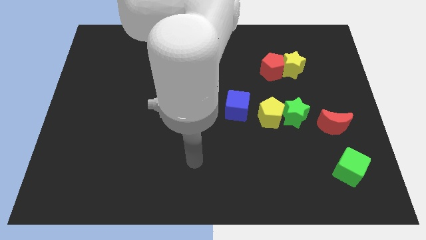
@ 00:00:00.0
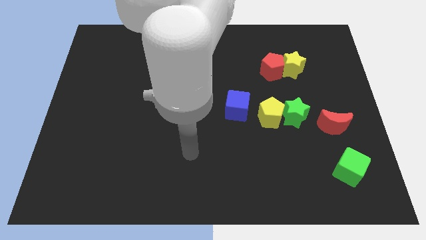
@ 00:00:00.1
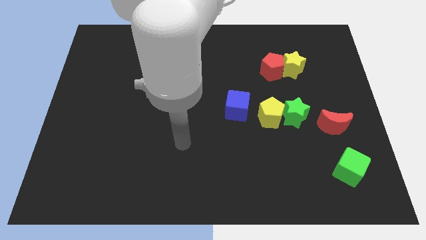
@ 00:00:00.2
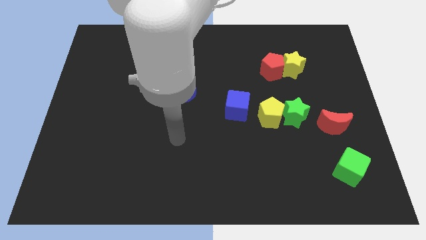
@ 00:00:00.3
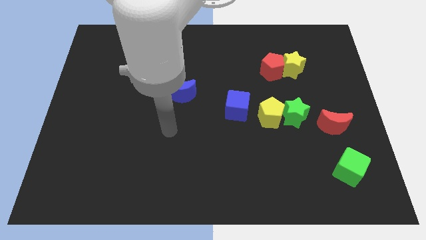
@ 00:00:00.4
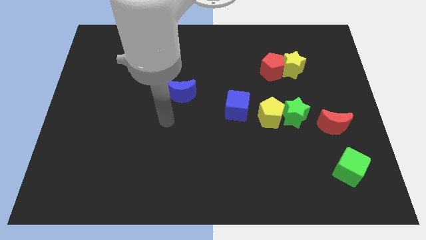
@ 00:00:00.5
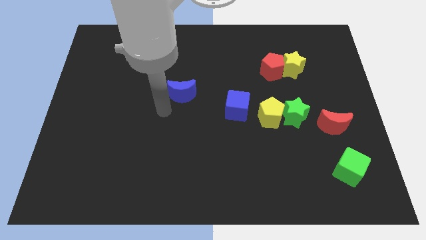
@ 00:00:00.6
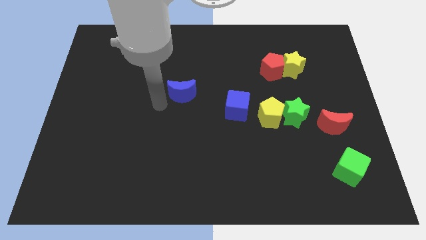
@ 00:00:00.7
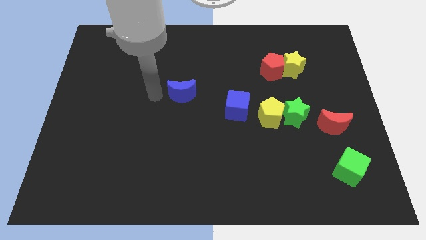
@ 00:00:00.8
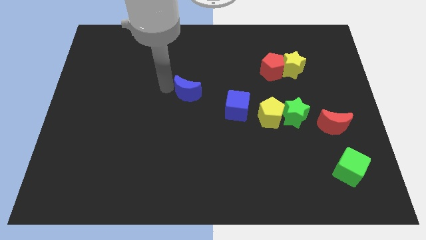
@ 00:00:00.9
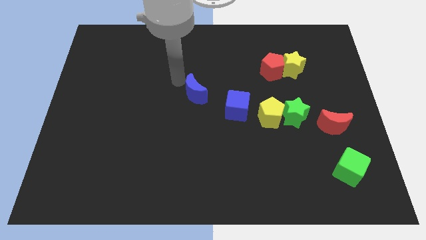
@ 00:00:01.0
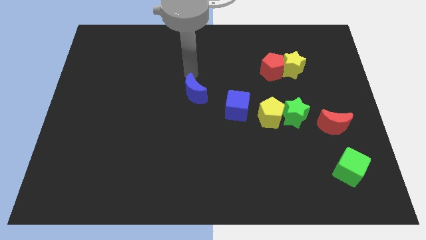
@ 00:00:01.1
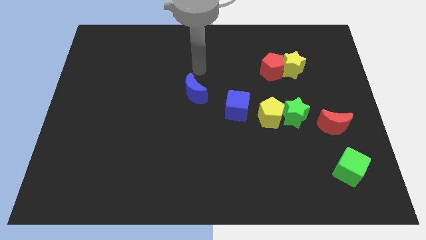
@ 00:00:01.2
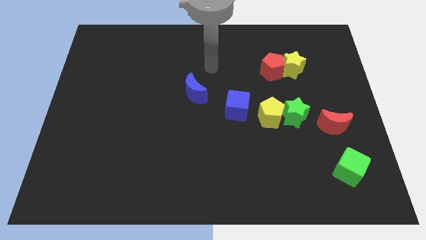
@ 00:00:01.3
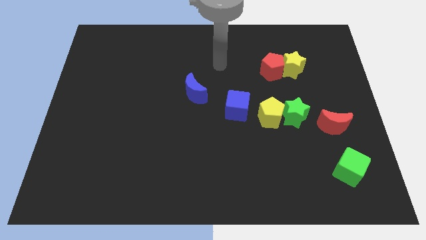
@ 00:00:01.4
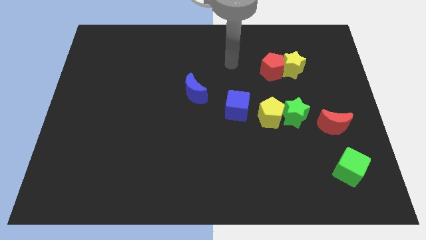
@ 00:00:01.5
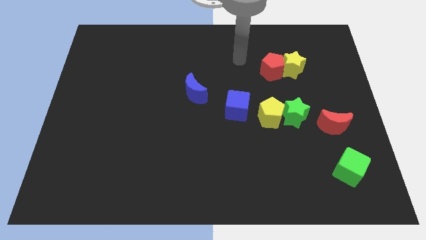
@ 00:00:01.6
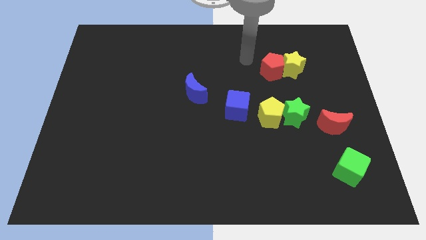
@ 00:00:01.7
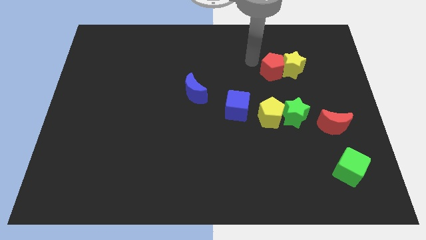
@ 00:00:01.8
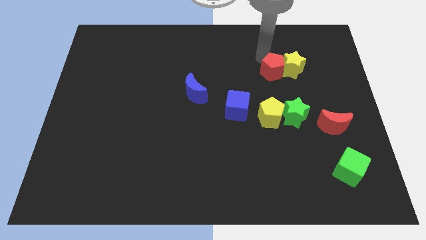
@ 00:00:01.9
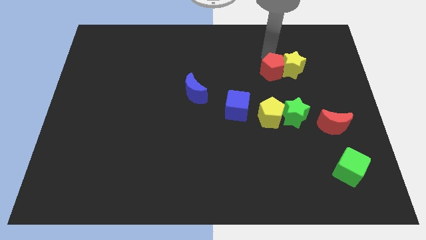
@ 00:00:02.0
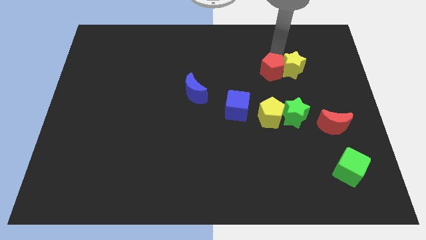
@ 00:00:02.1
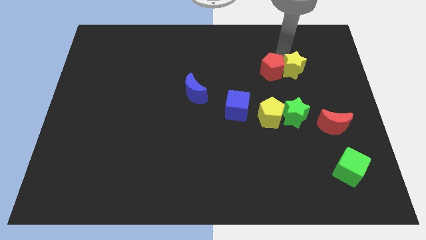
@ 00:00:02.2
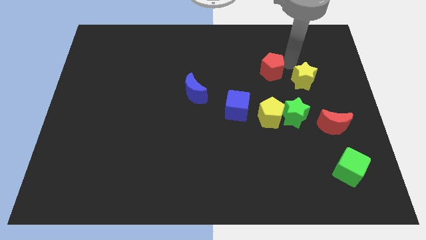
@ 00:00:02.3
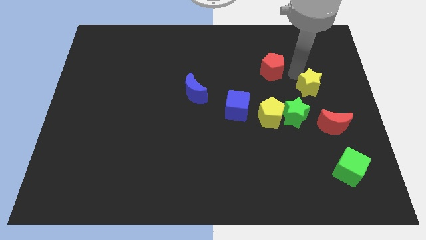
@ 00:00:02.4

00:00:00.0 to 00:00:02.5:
pull the red pentagon apart from the yellow star

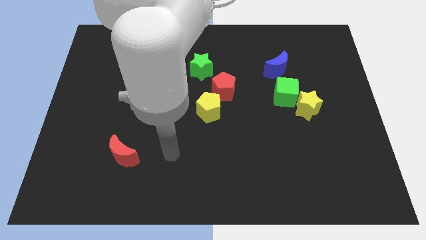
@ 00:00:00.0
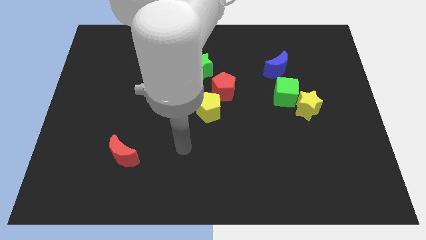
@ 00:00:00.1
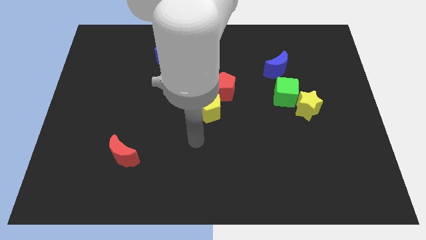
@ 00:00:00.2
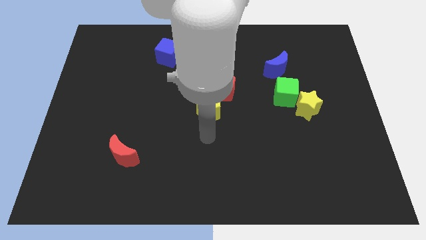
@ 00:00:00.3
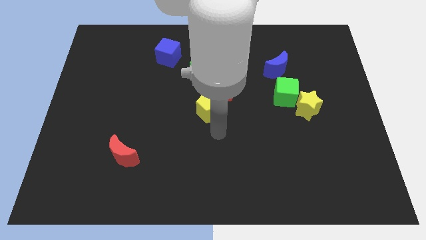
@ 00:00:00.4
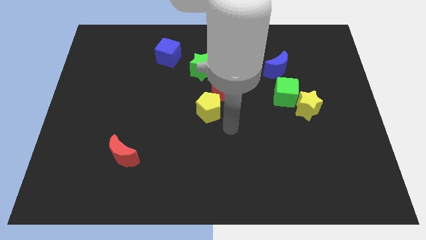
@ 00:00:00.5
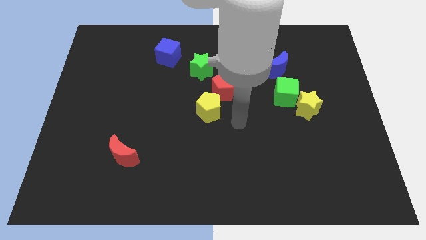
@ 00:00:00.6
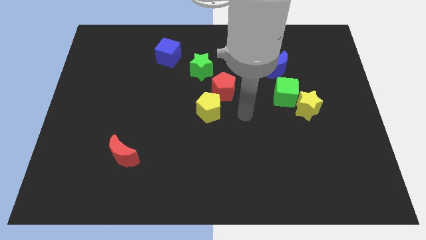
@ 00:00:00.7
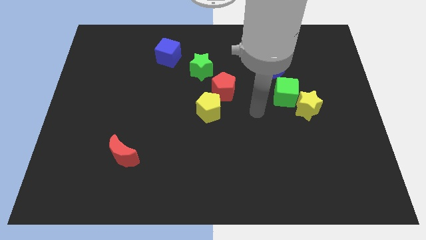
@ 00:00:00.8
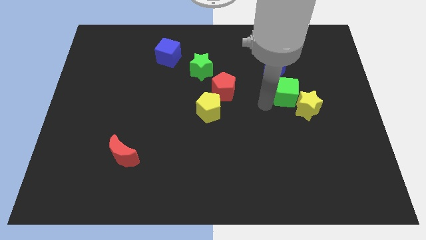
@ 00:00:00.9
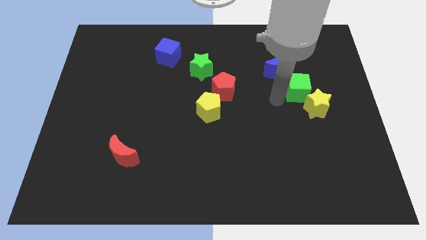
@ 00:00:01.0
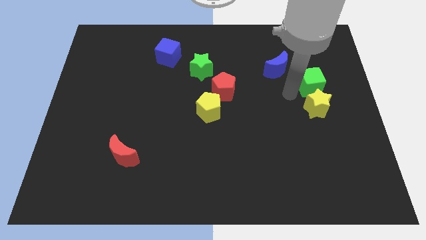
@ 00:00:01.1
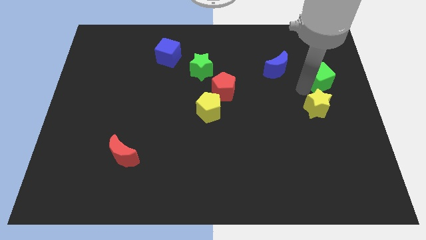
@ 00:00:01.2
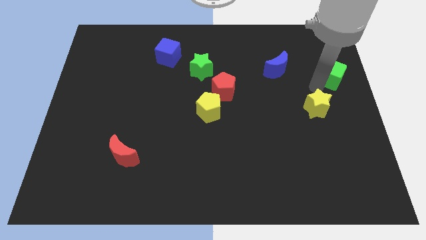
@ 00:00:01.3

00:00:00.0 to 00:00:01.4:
pull the yellow star apart from the green cube

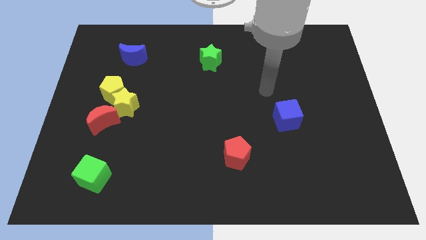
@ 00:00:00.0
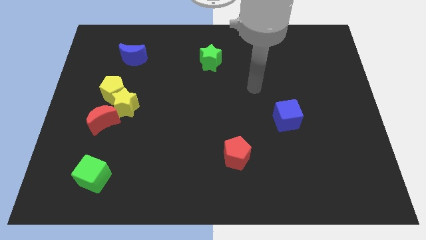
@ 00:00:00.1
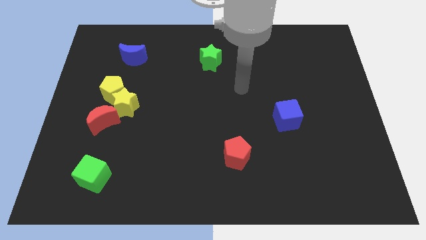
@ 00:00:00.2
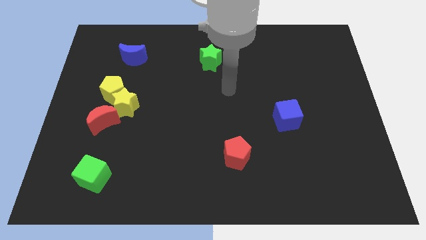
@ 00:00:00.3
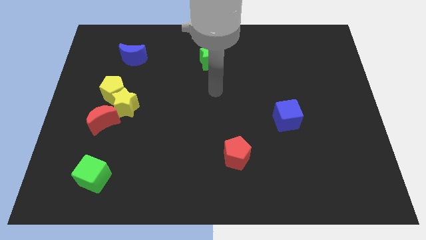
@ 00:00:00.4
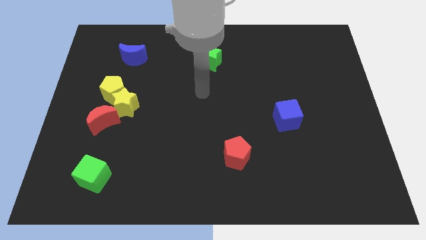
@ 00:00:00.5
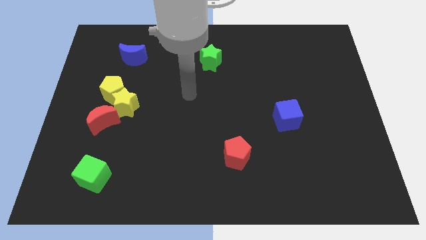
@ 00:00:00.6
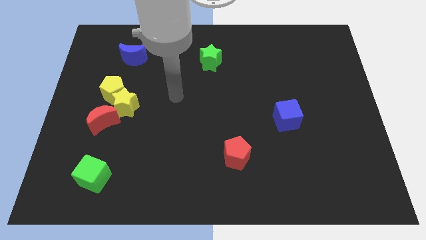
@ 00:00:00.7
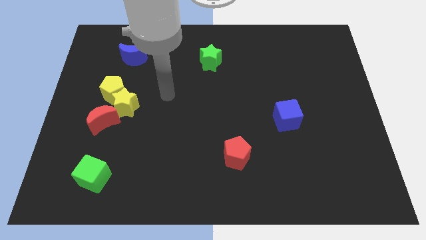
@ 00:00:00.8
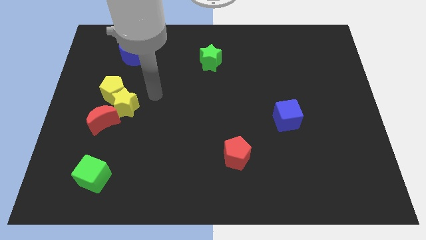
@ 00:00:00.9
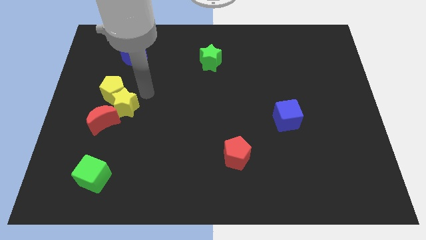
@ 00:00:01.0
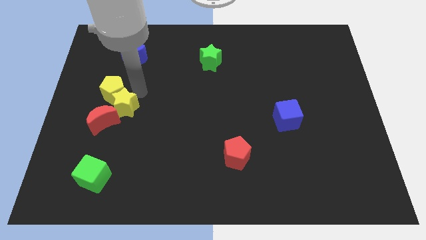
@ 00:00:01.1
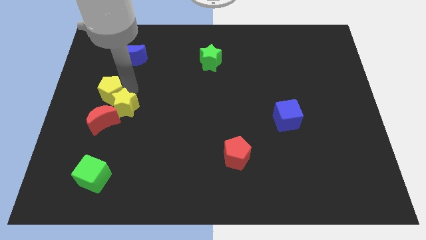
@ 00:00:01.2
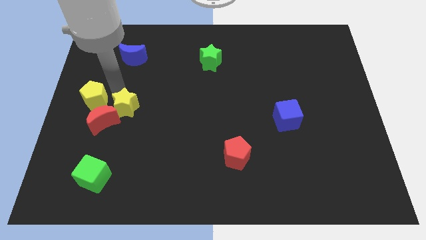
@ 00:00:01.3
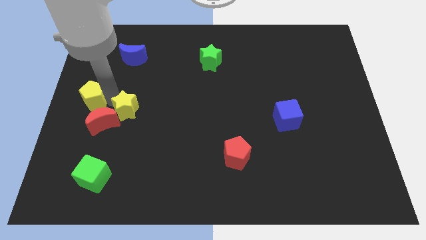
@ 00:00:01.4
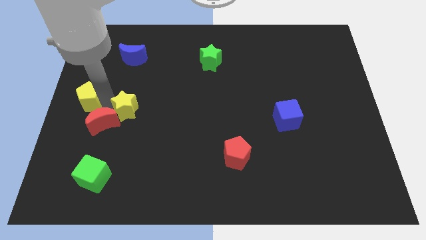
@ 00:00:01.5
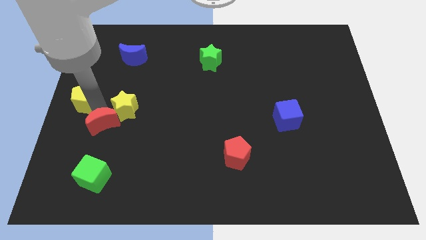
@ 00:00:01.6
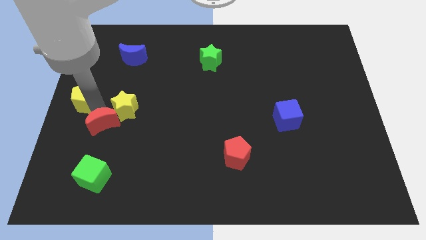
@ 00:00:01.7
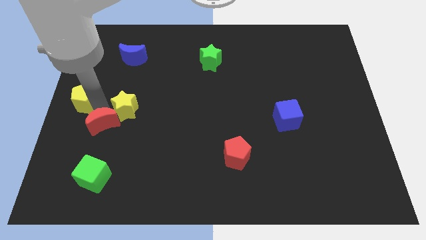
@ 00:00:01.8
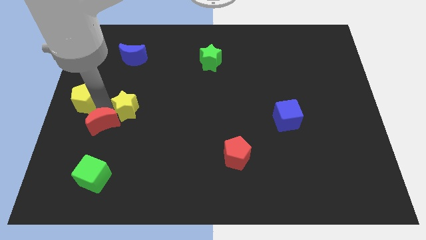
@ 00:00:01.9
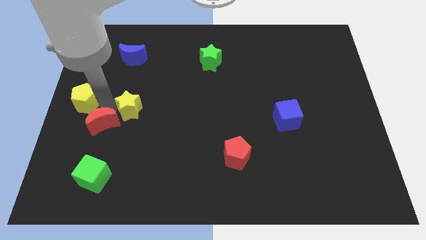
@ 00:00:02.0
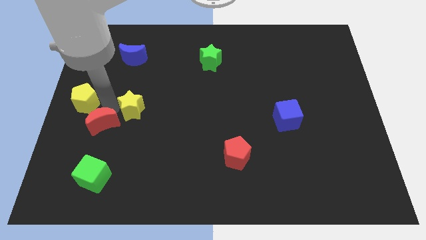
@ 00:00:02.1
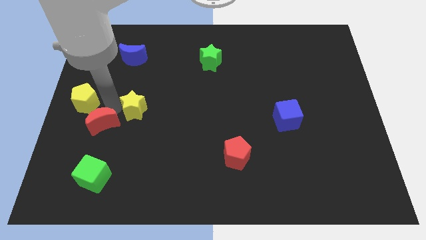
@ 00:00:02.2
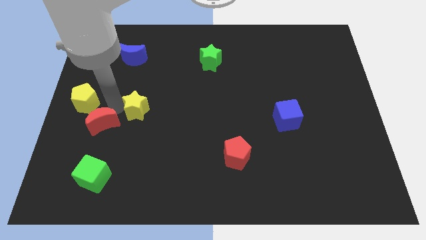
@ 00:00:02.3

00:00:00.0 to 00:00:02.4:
separate the yellow star from the yellow pentagon and red moon

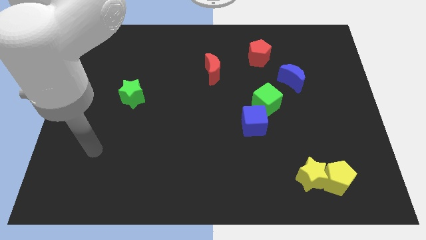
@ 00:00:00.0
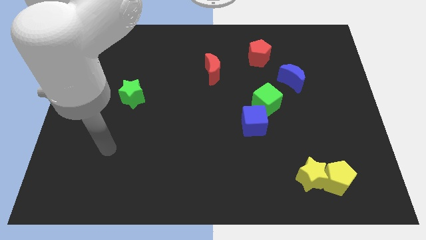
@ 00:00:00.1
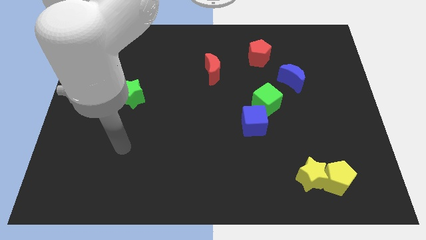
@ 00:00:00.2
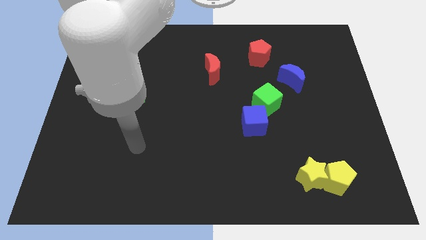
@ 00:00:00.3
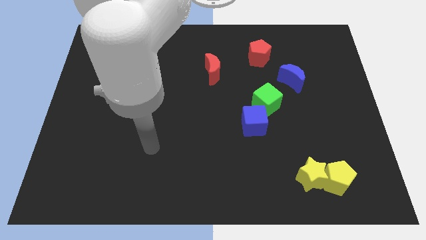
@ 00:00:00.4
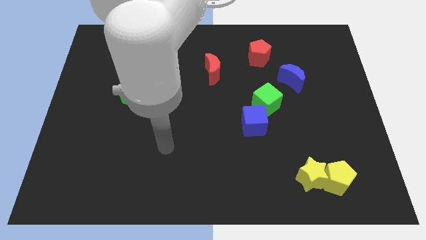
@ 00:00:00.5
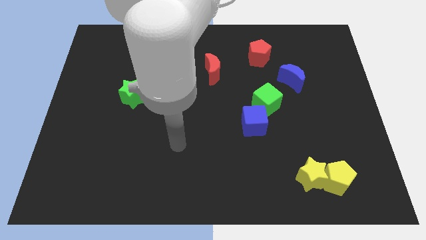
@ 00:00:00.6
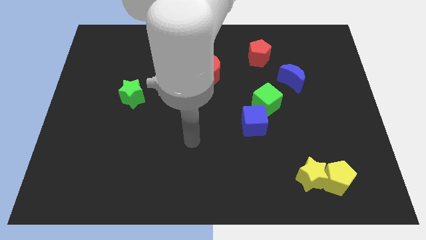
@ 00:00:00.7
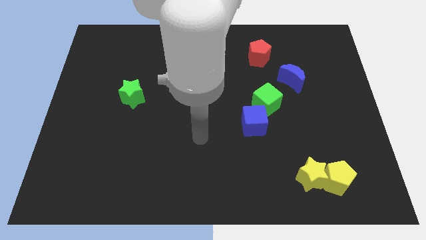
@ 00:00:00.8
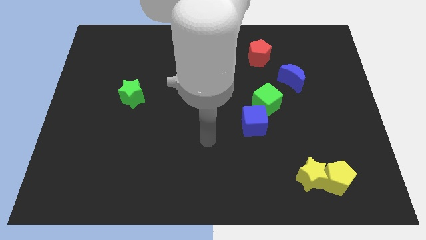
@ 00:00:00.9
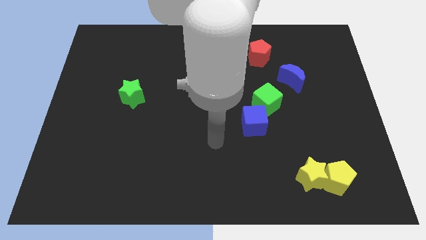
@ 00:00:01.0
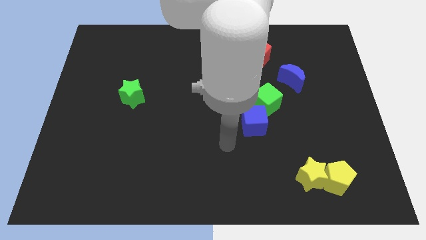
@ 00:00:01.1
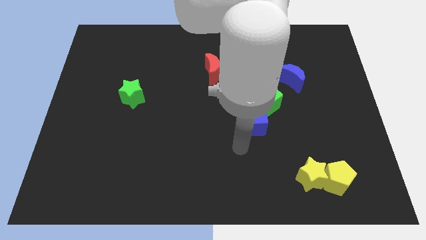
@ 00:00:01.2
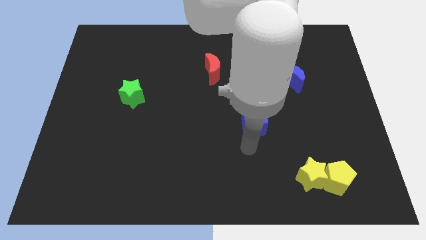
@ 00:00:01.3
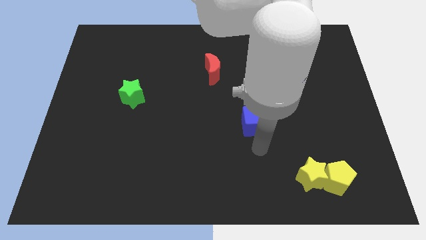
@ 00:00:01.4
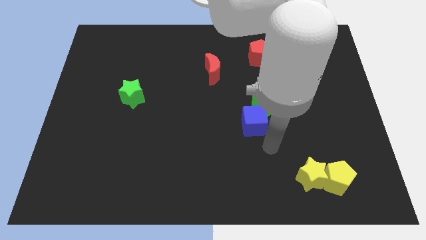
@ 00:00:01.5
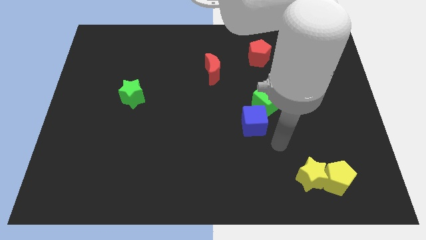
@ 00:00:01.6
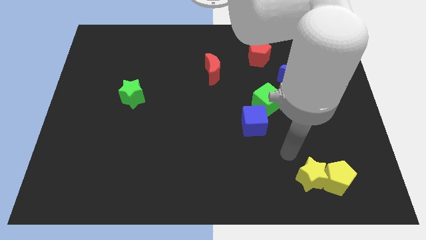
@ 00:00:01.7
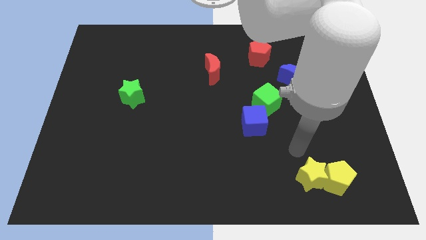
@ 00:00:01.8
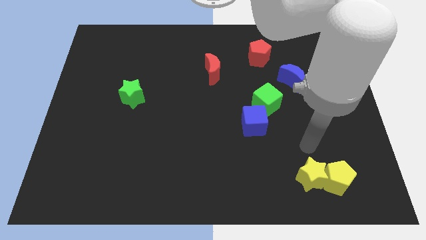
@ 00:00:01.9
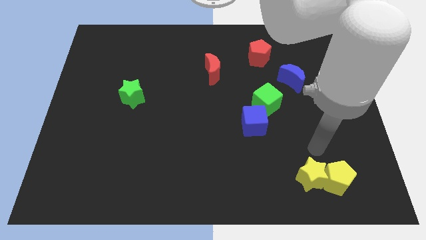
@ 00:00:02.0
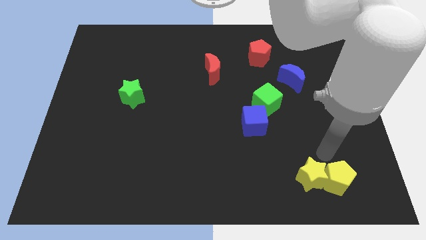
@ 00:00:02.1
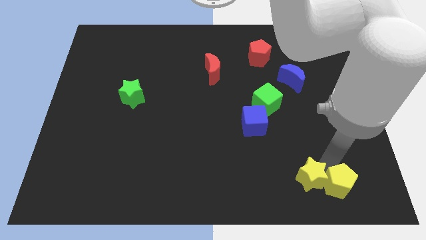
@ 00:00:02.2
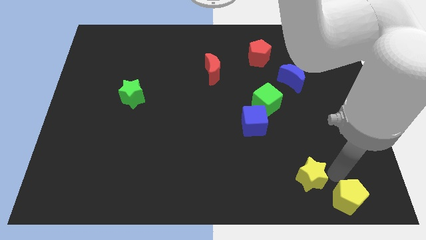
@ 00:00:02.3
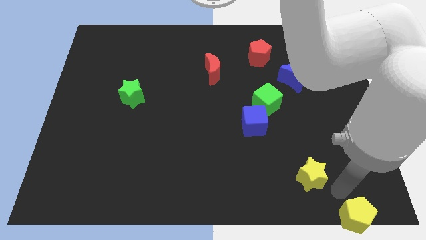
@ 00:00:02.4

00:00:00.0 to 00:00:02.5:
pull the yellow star apart from the yellow pentagon

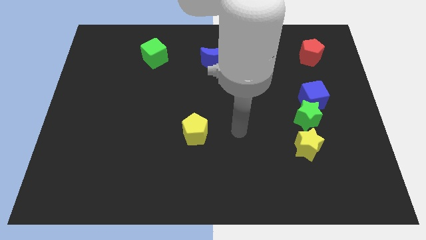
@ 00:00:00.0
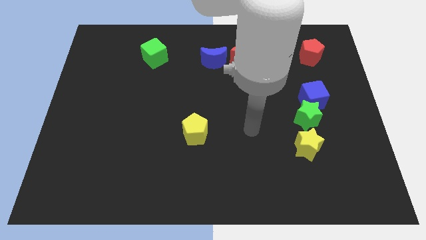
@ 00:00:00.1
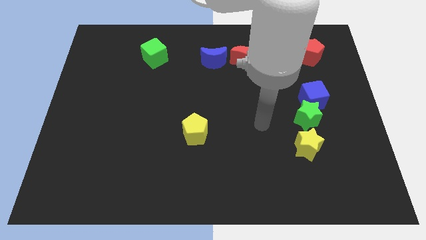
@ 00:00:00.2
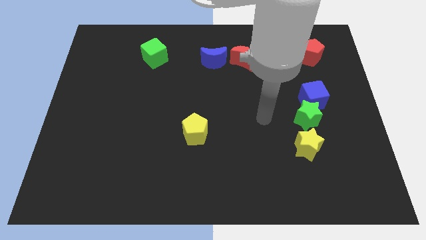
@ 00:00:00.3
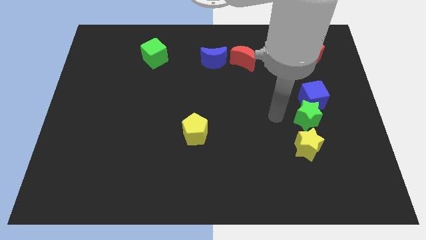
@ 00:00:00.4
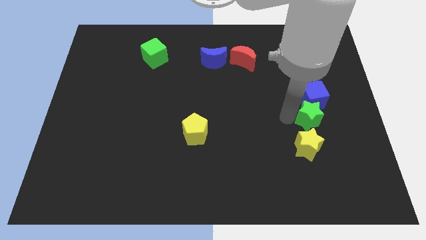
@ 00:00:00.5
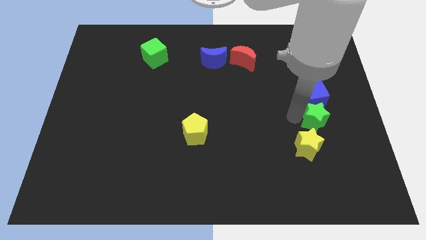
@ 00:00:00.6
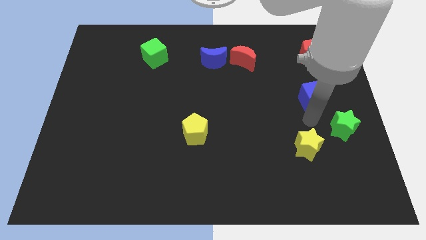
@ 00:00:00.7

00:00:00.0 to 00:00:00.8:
move the blue cube away from the green star
